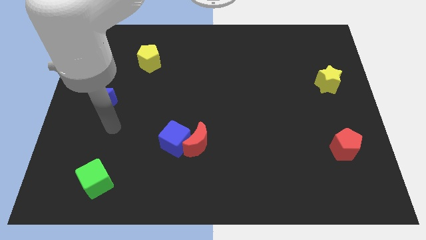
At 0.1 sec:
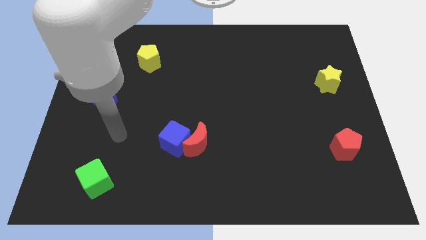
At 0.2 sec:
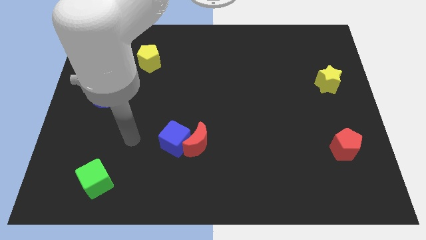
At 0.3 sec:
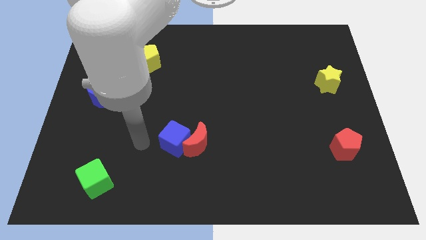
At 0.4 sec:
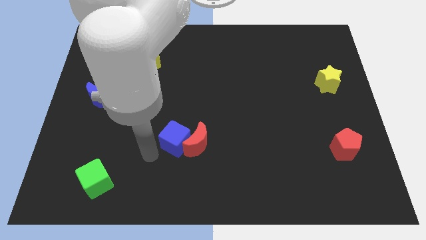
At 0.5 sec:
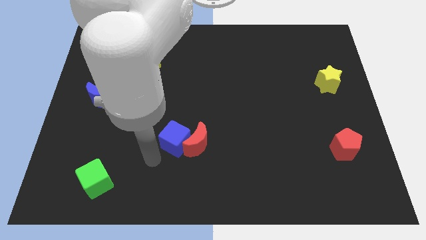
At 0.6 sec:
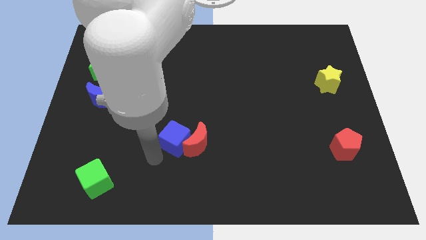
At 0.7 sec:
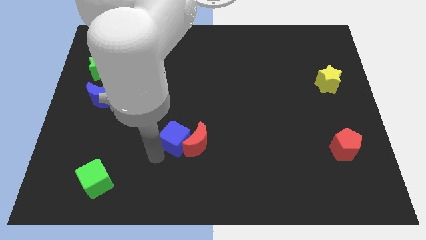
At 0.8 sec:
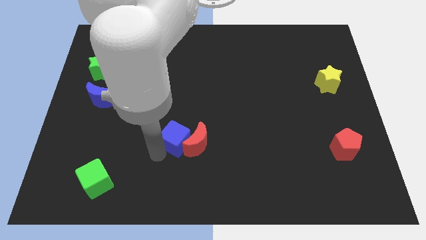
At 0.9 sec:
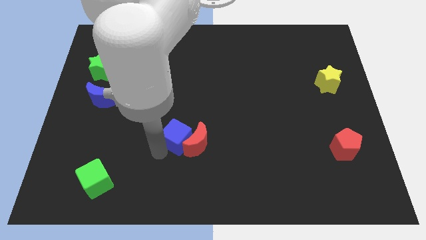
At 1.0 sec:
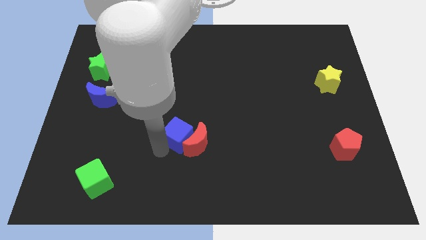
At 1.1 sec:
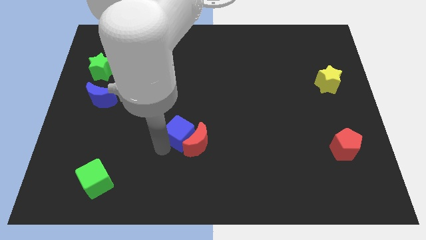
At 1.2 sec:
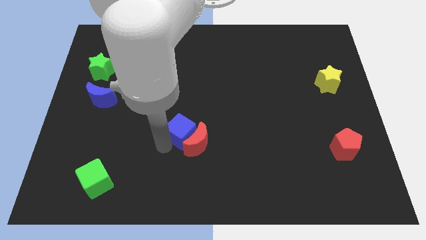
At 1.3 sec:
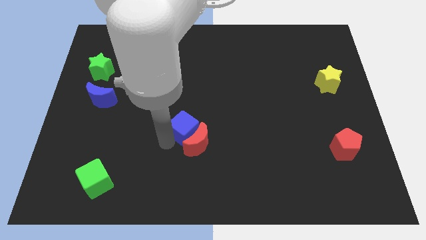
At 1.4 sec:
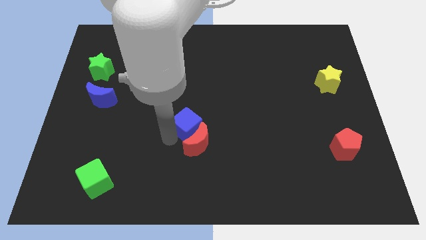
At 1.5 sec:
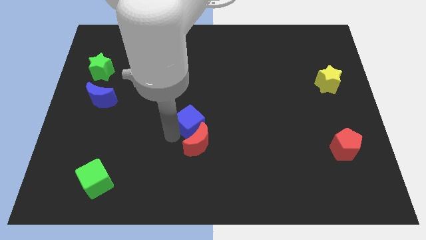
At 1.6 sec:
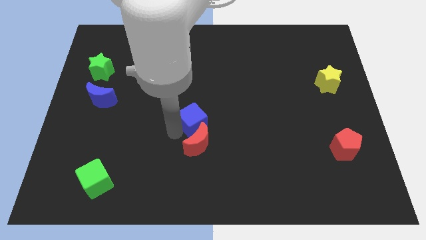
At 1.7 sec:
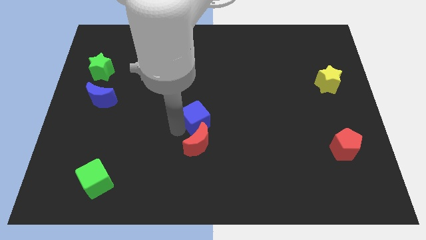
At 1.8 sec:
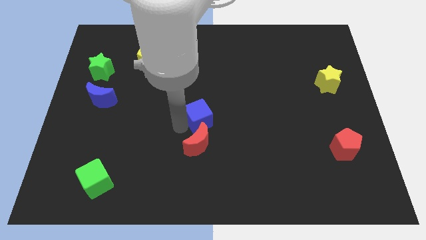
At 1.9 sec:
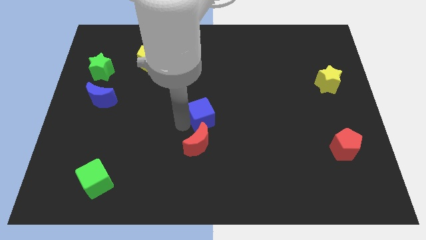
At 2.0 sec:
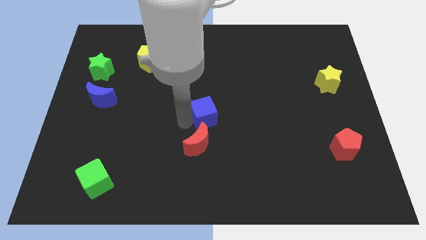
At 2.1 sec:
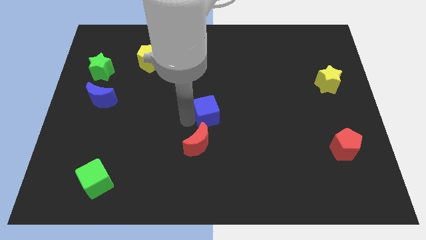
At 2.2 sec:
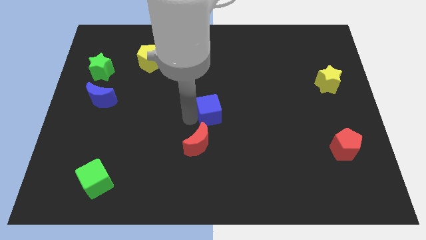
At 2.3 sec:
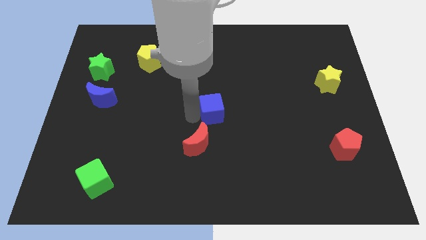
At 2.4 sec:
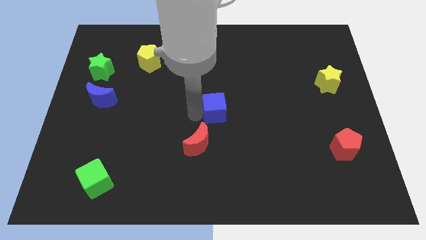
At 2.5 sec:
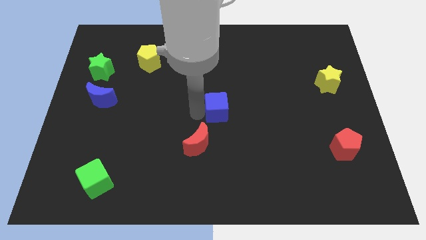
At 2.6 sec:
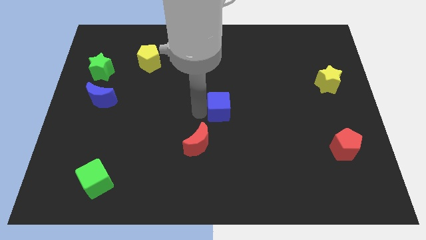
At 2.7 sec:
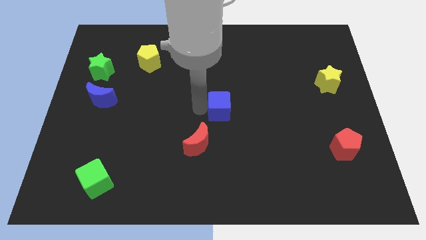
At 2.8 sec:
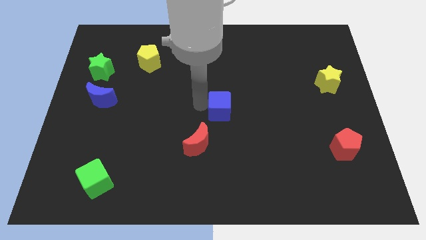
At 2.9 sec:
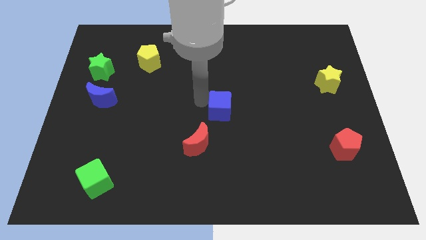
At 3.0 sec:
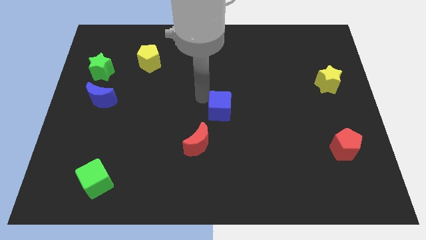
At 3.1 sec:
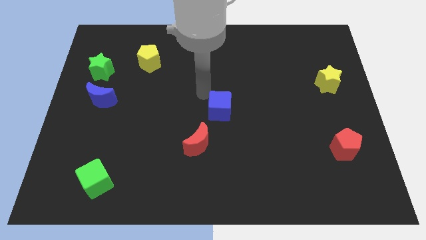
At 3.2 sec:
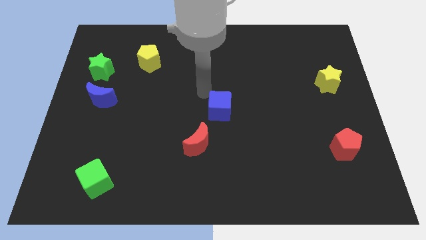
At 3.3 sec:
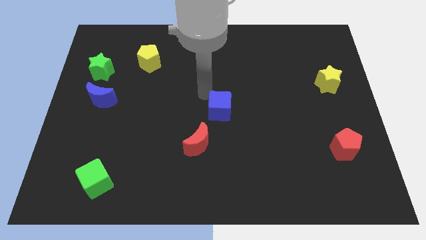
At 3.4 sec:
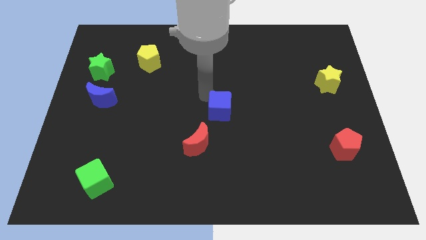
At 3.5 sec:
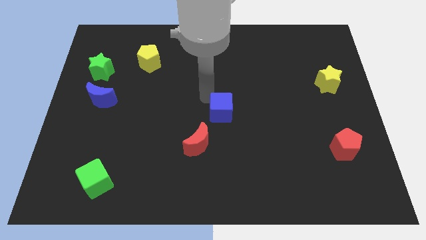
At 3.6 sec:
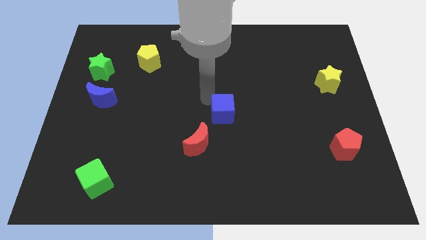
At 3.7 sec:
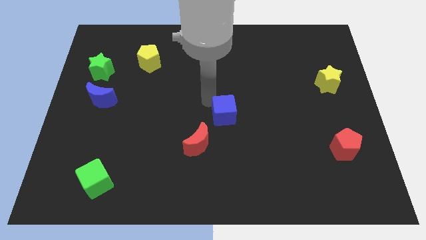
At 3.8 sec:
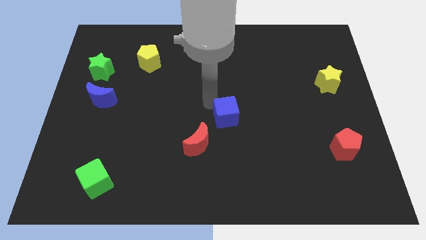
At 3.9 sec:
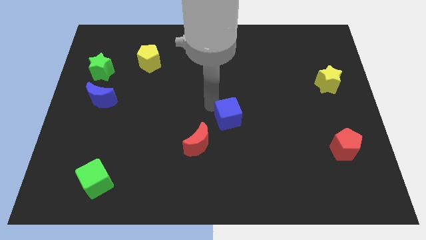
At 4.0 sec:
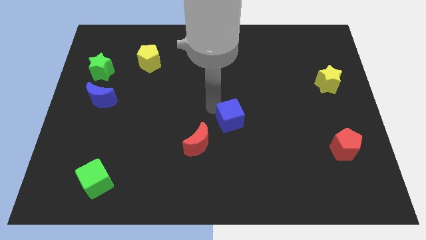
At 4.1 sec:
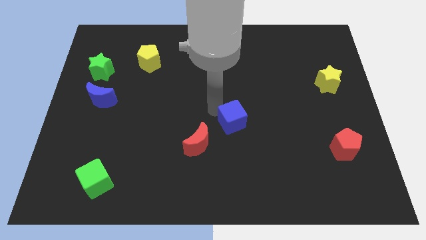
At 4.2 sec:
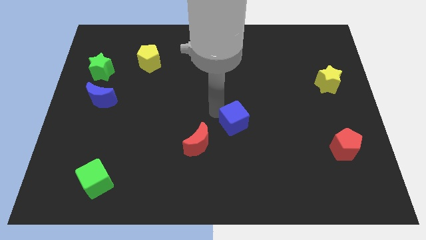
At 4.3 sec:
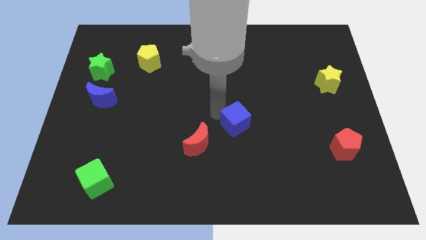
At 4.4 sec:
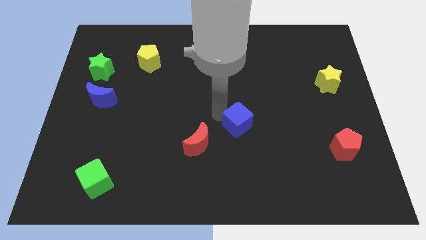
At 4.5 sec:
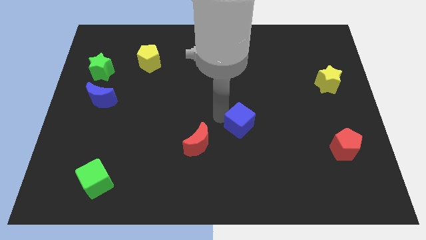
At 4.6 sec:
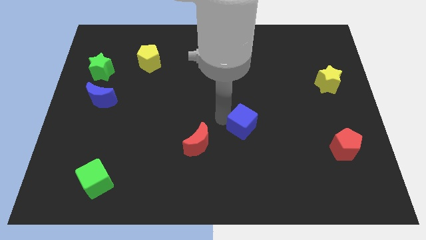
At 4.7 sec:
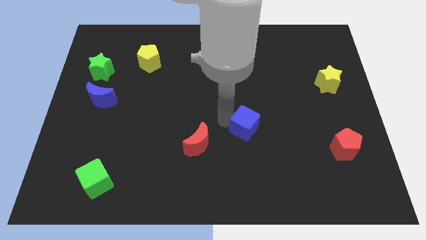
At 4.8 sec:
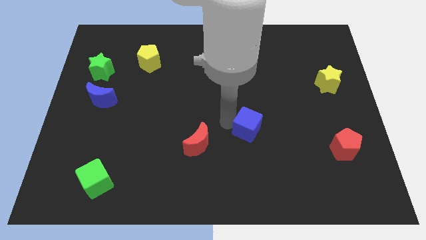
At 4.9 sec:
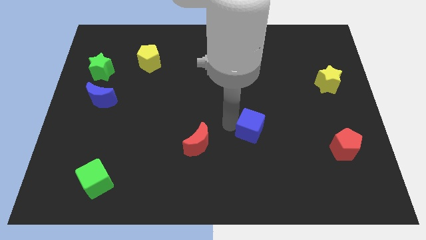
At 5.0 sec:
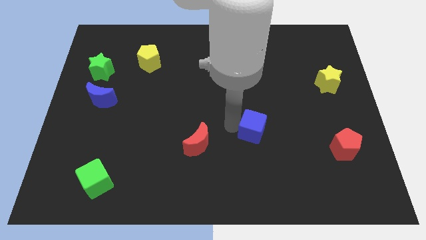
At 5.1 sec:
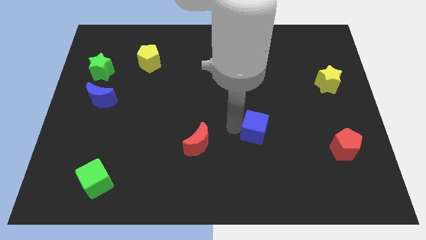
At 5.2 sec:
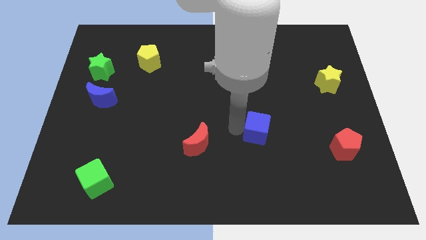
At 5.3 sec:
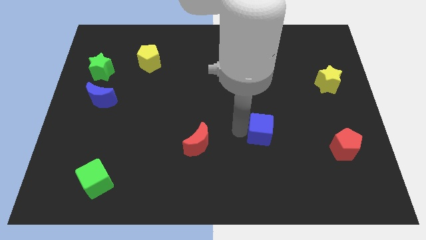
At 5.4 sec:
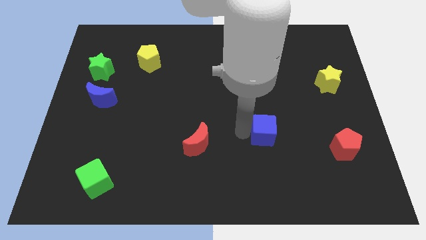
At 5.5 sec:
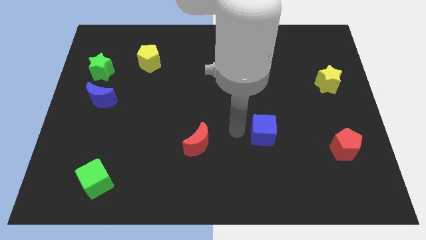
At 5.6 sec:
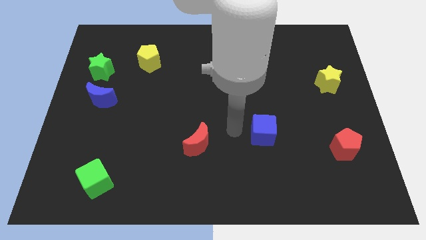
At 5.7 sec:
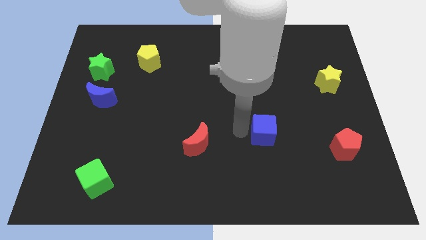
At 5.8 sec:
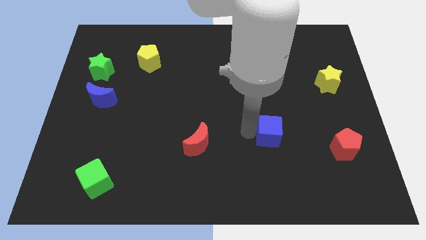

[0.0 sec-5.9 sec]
move the blue cube right

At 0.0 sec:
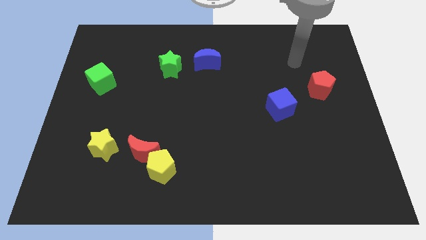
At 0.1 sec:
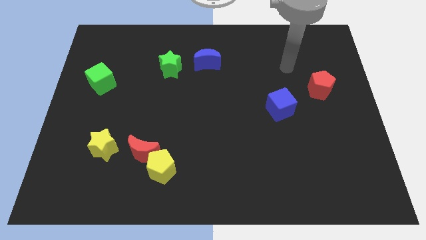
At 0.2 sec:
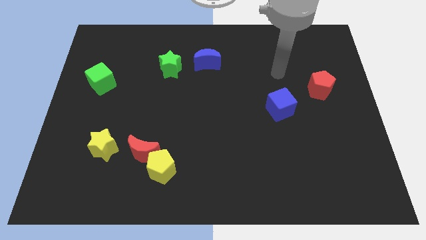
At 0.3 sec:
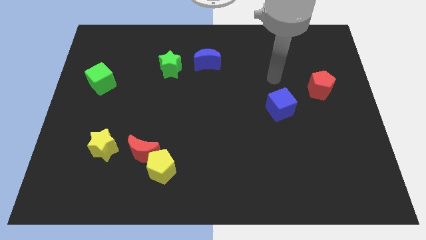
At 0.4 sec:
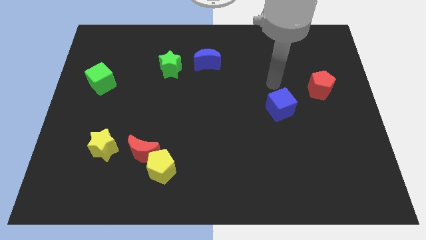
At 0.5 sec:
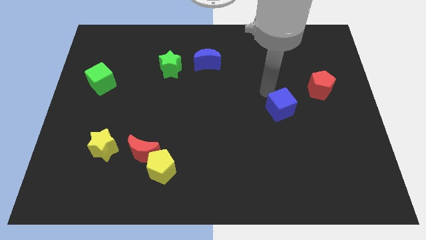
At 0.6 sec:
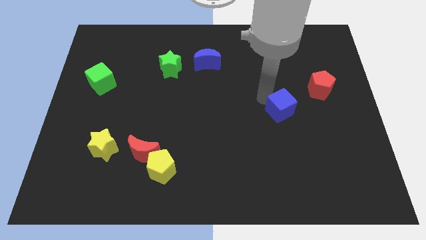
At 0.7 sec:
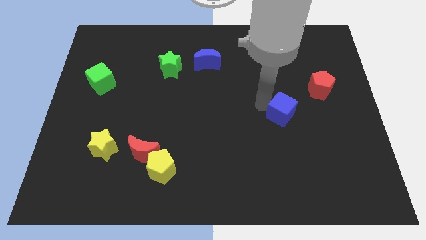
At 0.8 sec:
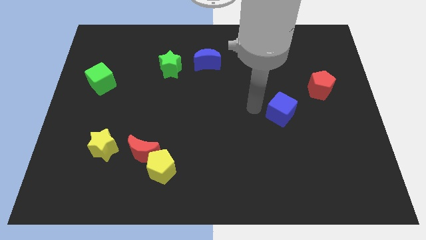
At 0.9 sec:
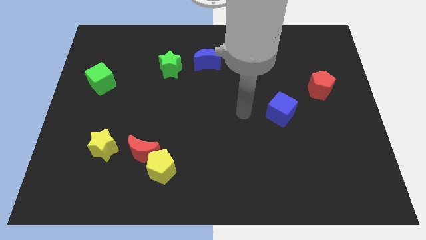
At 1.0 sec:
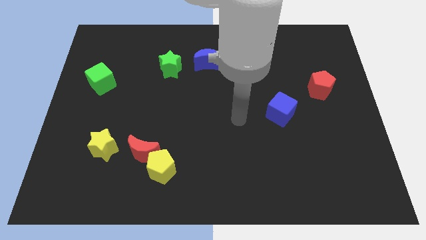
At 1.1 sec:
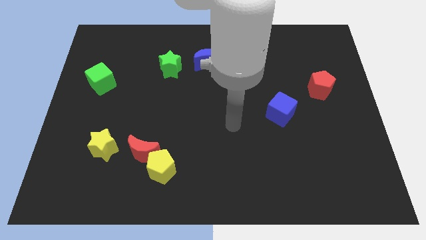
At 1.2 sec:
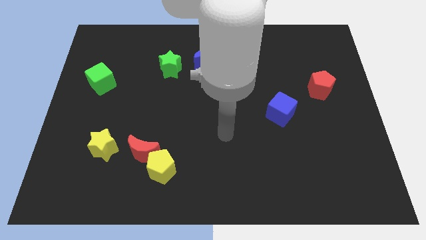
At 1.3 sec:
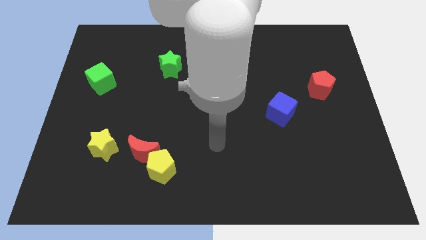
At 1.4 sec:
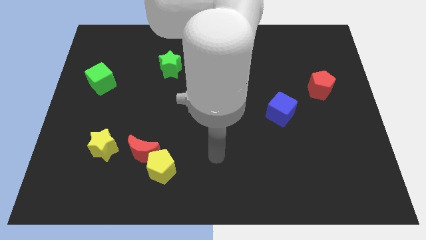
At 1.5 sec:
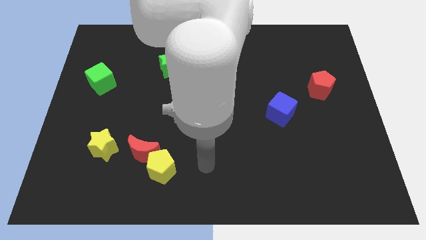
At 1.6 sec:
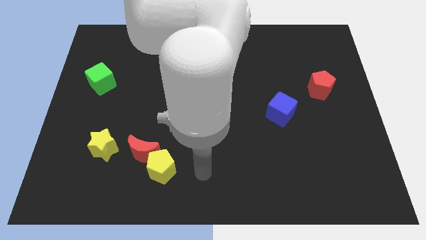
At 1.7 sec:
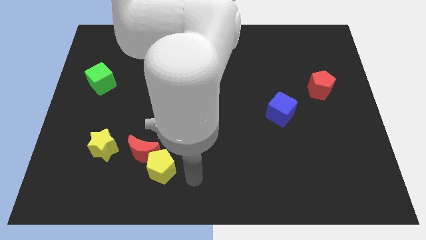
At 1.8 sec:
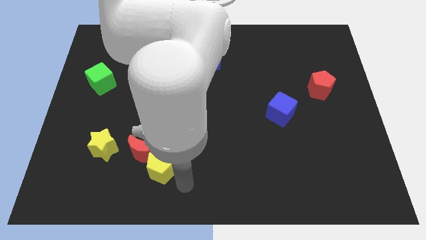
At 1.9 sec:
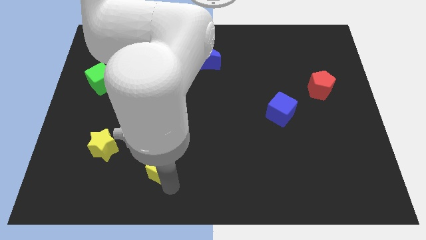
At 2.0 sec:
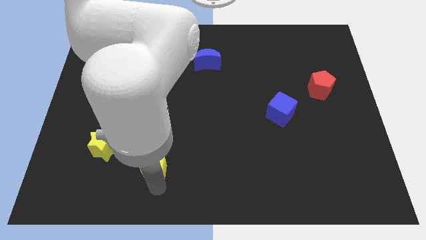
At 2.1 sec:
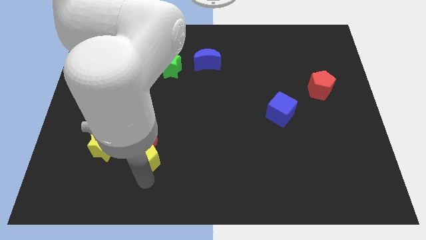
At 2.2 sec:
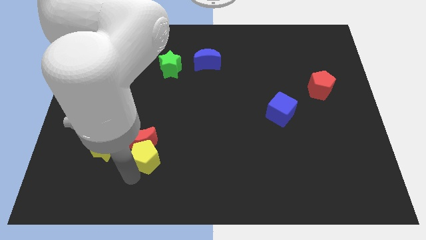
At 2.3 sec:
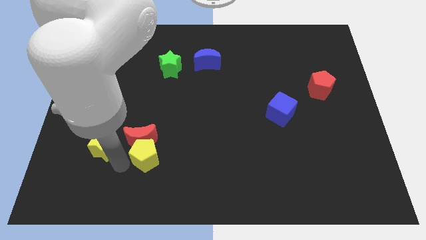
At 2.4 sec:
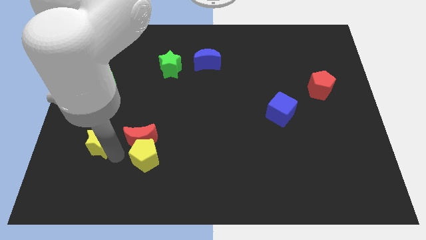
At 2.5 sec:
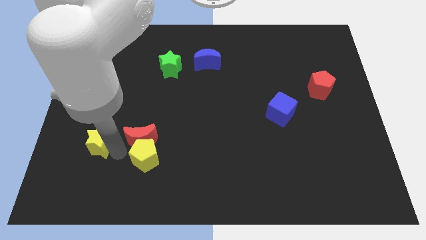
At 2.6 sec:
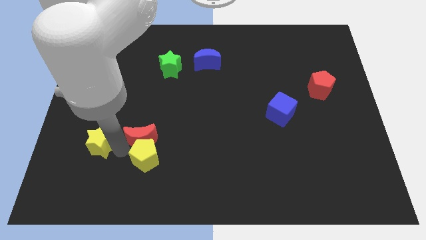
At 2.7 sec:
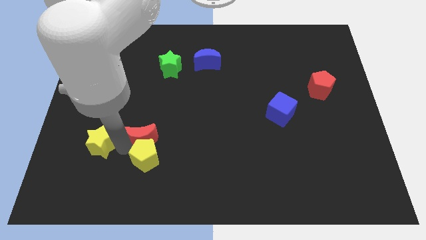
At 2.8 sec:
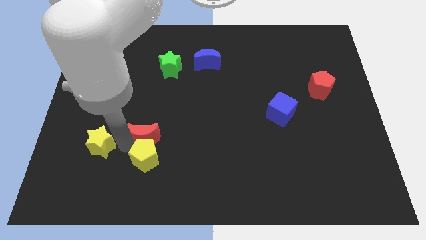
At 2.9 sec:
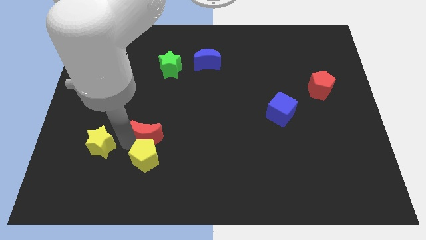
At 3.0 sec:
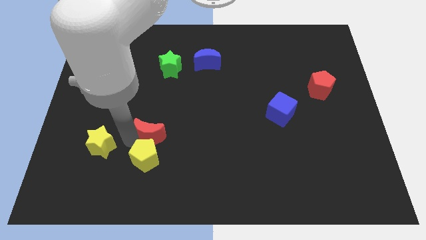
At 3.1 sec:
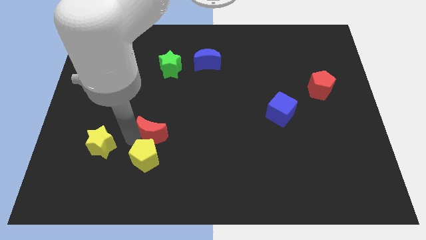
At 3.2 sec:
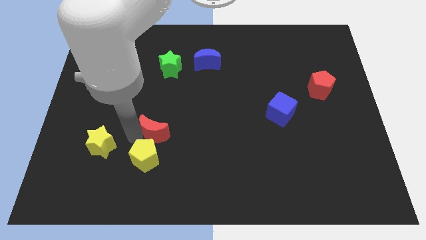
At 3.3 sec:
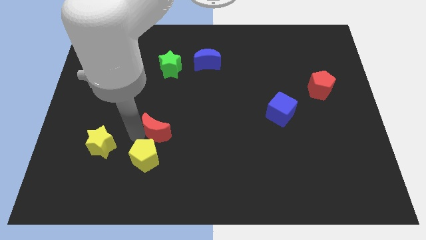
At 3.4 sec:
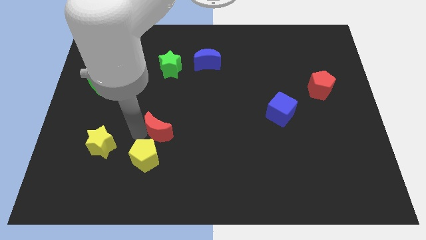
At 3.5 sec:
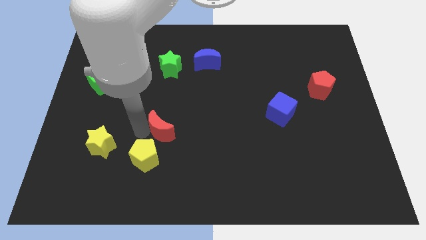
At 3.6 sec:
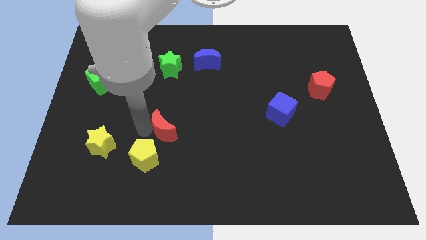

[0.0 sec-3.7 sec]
slide the red moon up and to the right a little bit
